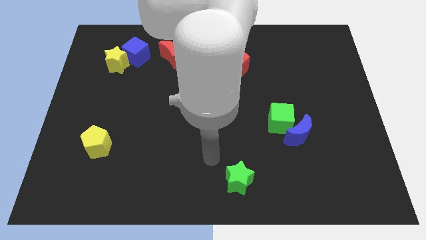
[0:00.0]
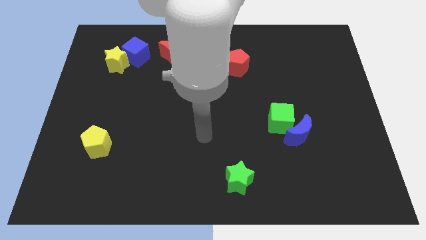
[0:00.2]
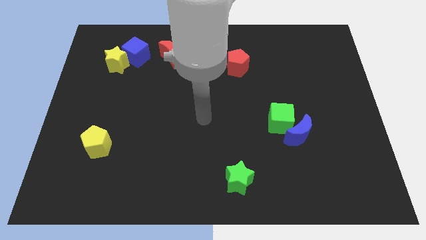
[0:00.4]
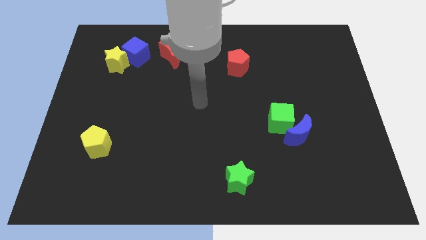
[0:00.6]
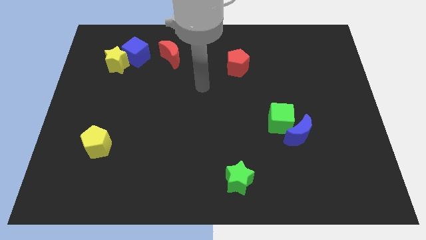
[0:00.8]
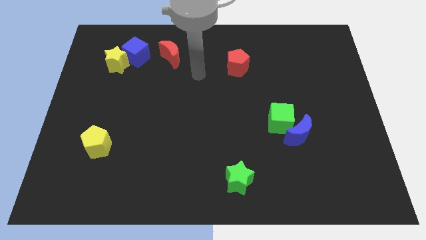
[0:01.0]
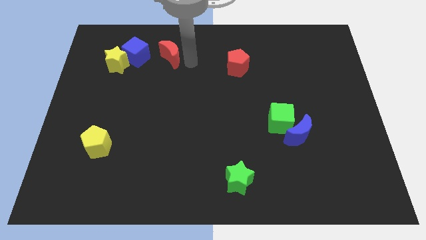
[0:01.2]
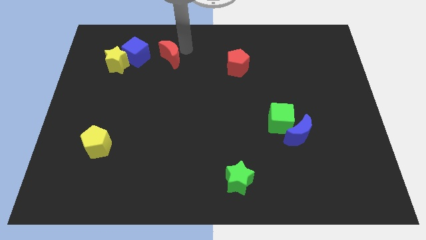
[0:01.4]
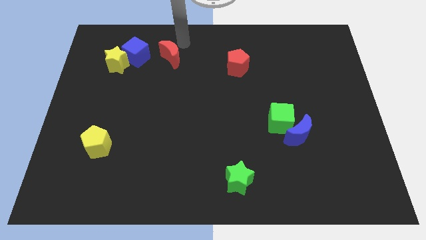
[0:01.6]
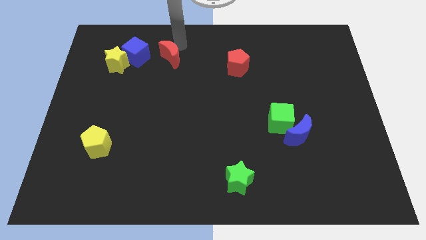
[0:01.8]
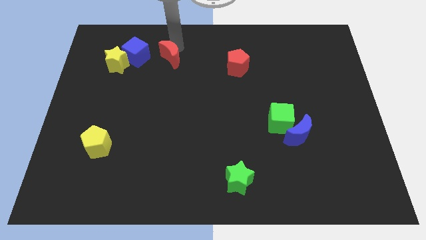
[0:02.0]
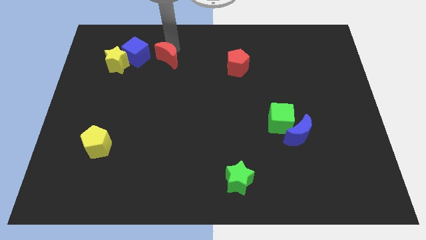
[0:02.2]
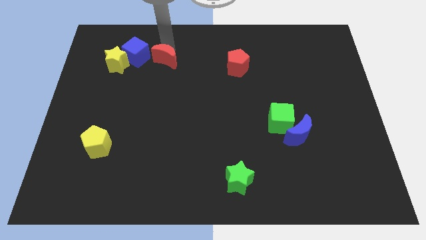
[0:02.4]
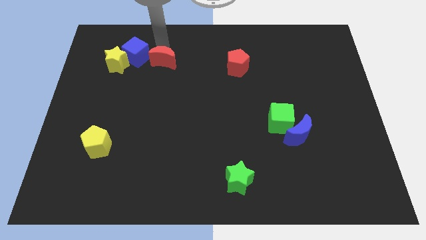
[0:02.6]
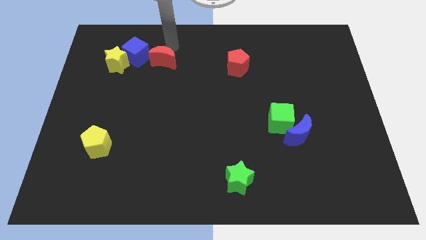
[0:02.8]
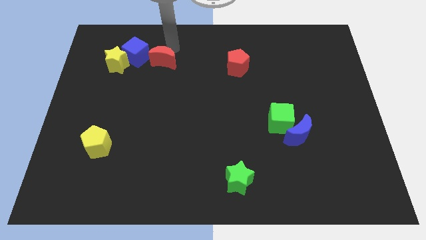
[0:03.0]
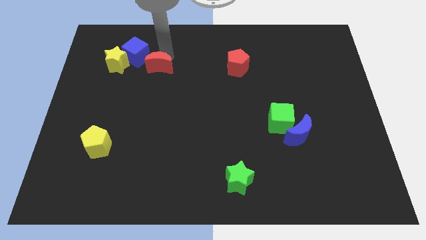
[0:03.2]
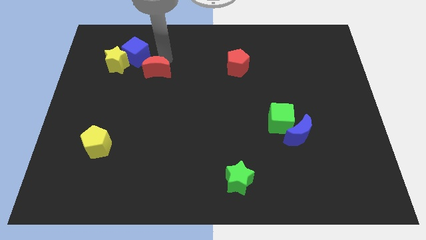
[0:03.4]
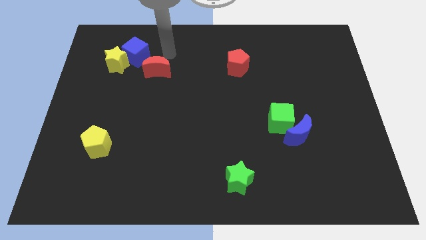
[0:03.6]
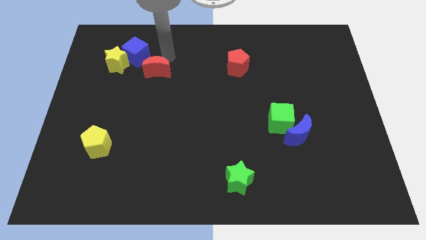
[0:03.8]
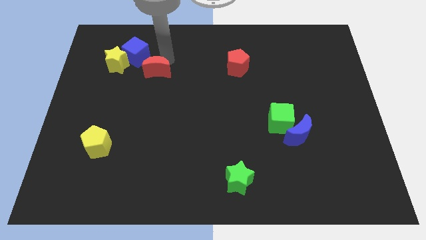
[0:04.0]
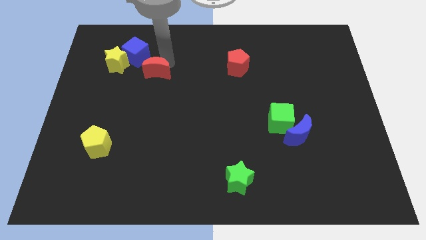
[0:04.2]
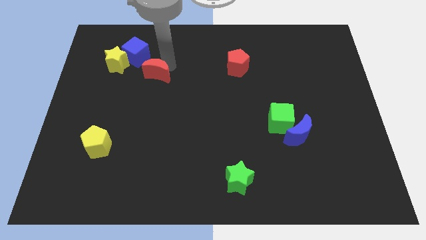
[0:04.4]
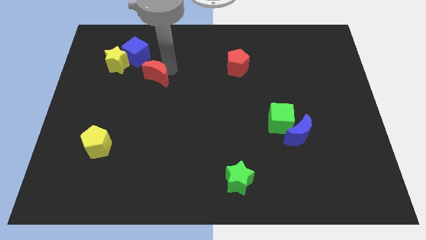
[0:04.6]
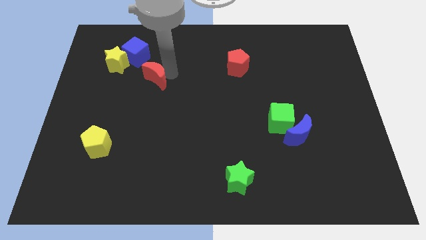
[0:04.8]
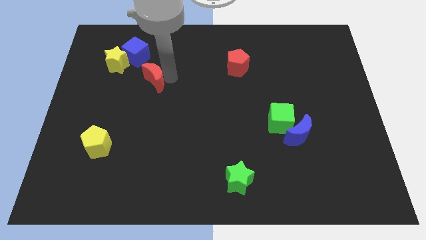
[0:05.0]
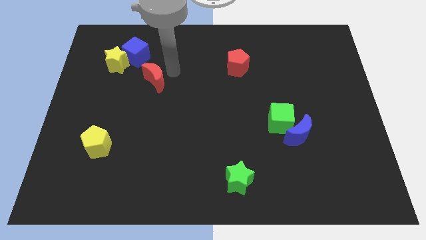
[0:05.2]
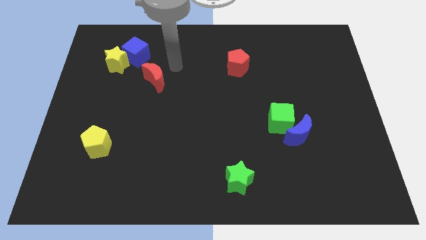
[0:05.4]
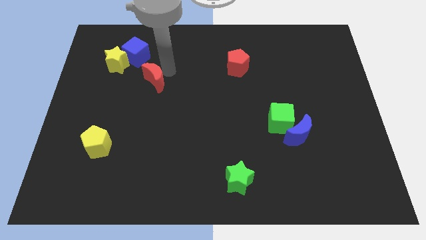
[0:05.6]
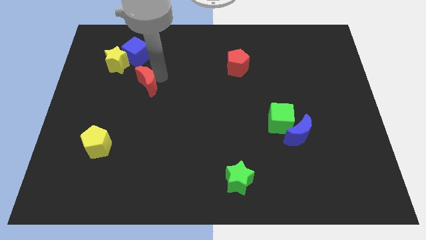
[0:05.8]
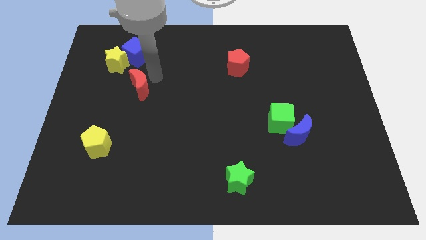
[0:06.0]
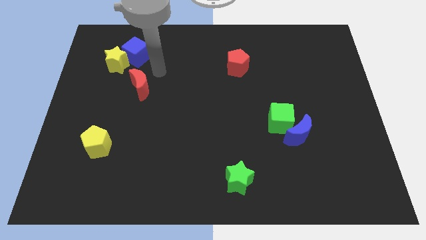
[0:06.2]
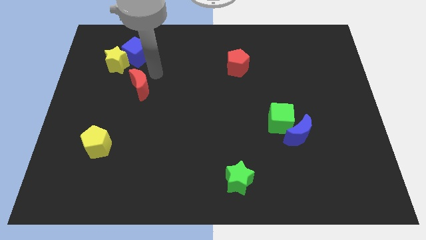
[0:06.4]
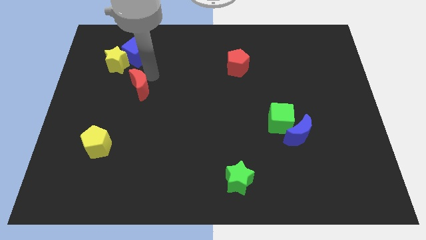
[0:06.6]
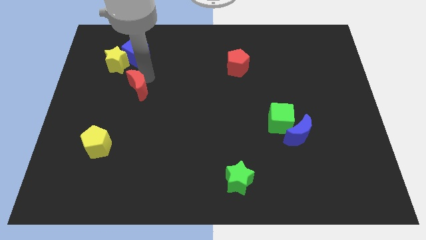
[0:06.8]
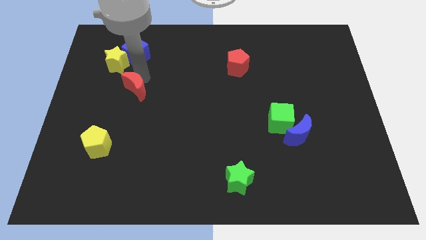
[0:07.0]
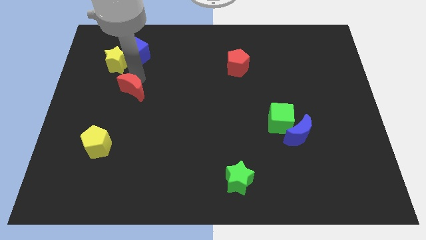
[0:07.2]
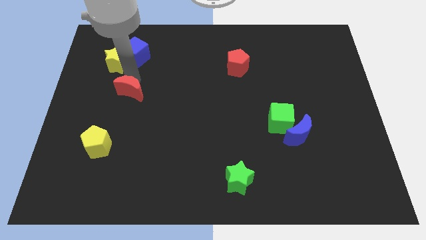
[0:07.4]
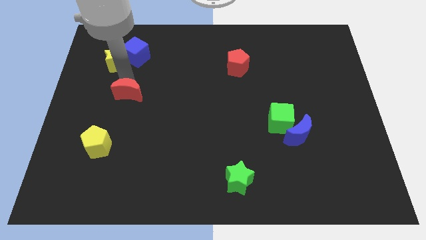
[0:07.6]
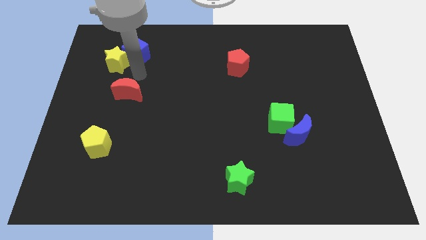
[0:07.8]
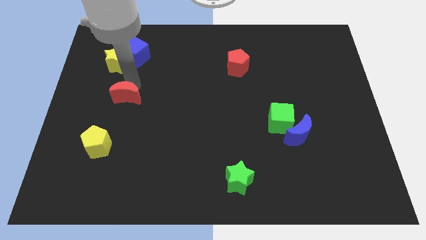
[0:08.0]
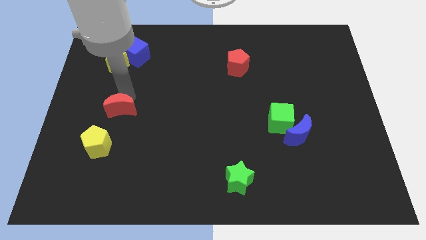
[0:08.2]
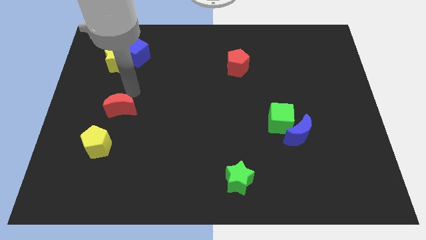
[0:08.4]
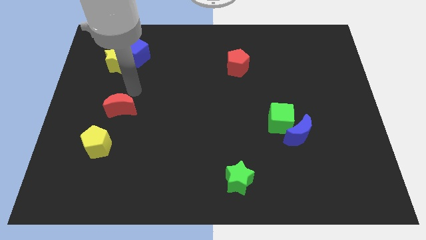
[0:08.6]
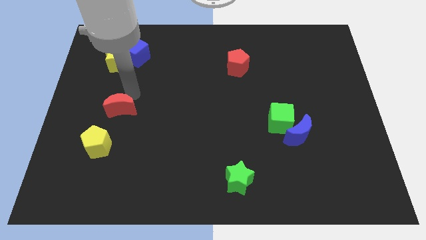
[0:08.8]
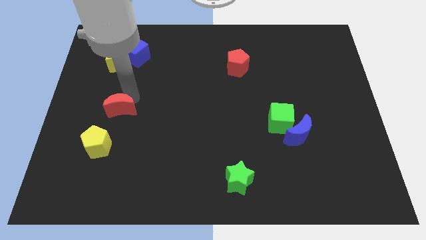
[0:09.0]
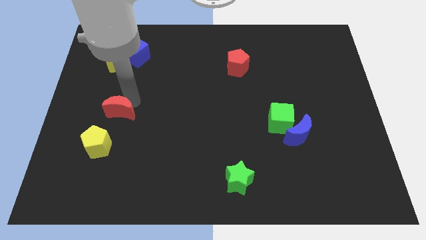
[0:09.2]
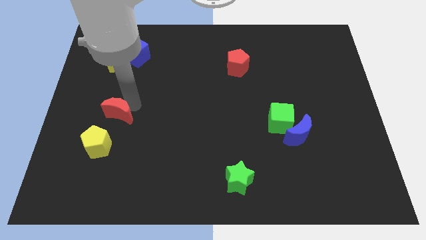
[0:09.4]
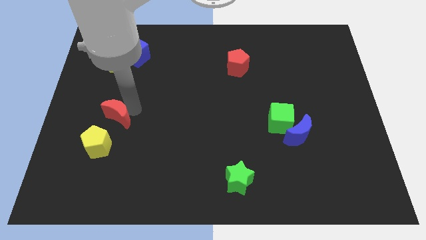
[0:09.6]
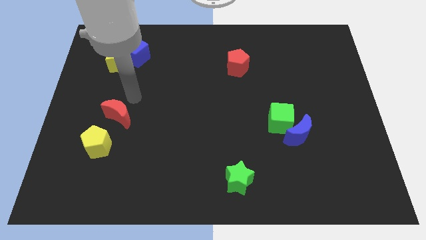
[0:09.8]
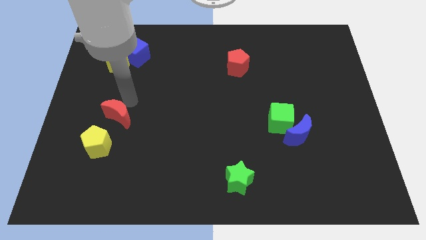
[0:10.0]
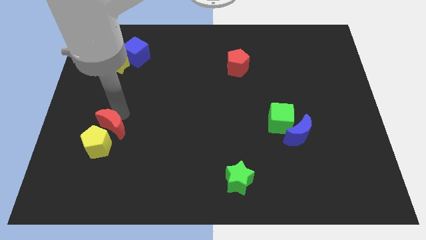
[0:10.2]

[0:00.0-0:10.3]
slide the red moon to the yellow pentagon

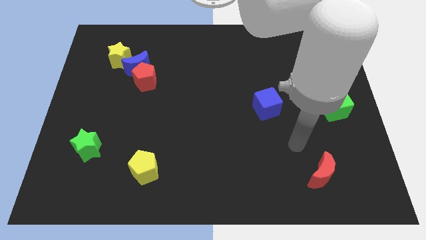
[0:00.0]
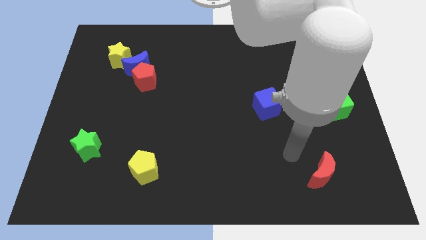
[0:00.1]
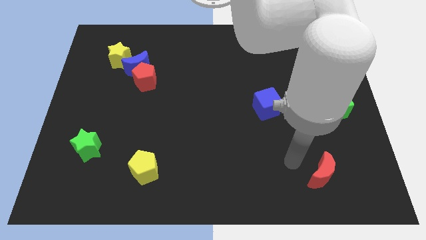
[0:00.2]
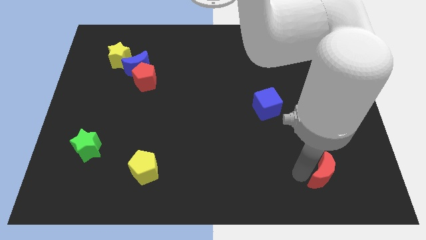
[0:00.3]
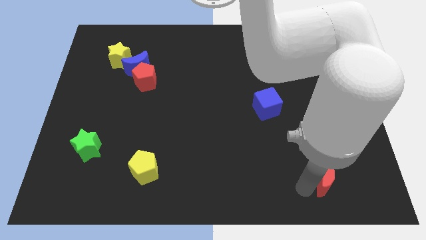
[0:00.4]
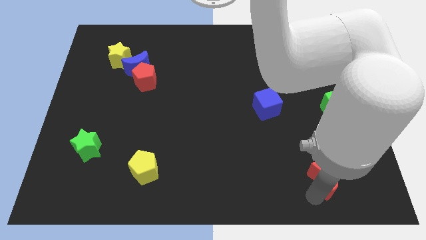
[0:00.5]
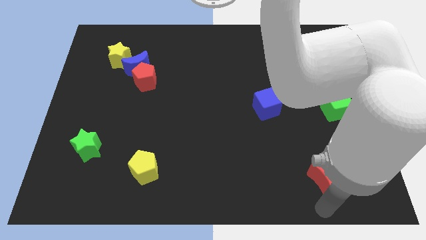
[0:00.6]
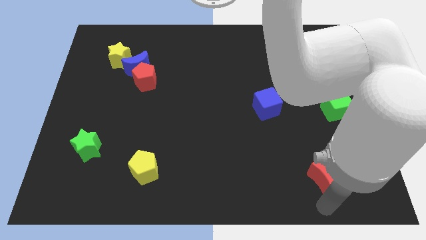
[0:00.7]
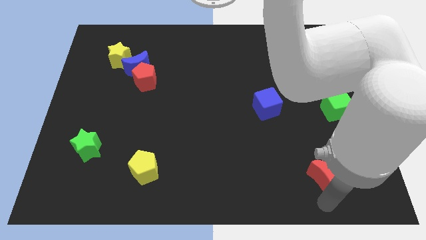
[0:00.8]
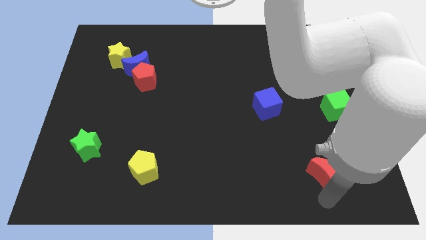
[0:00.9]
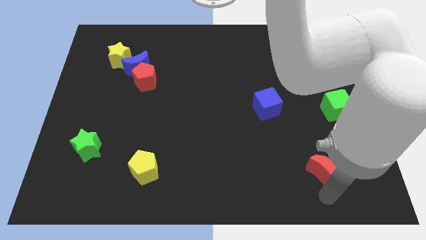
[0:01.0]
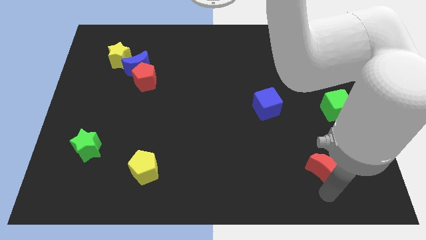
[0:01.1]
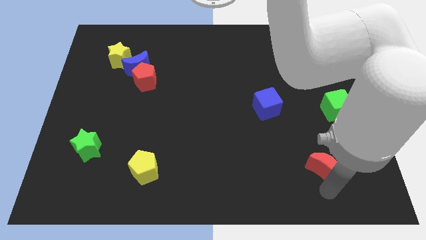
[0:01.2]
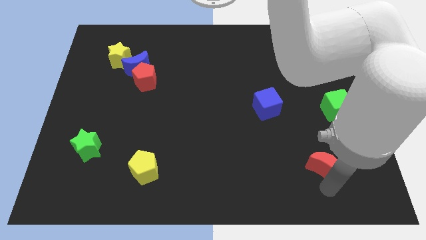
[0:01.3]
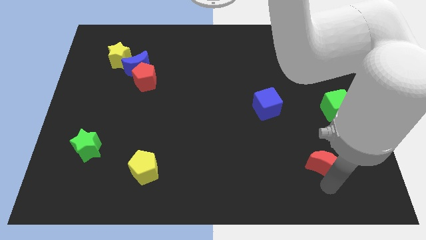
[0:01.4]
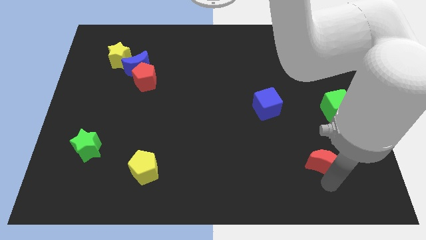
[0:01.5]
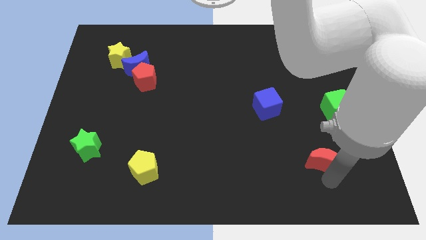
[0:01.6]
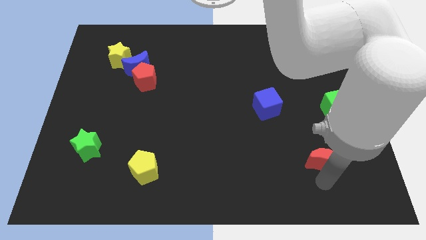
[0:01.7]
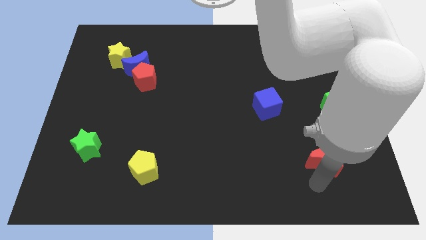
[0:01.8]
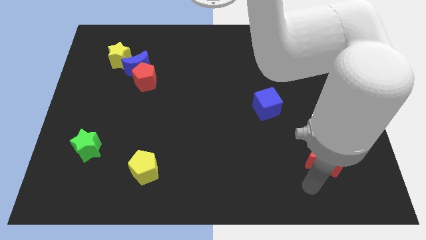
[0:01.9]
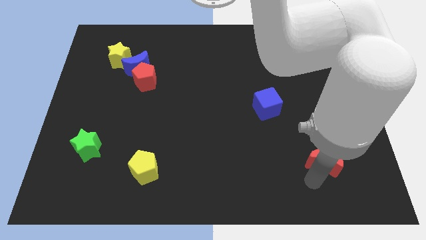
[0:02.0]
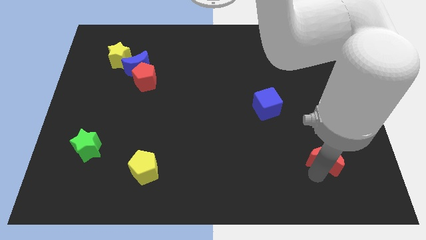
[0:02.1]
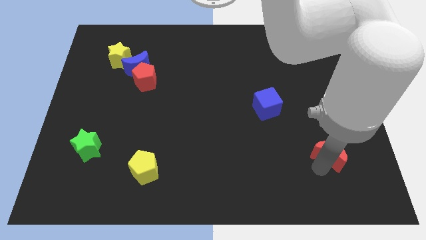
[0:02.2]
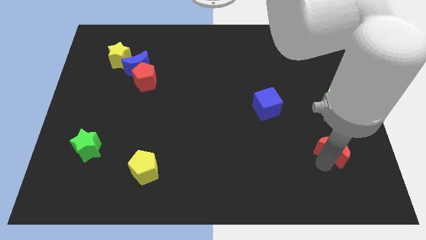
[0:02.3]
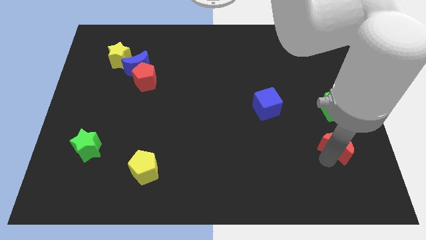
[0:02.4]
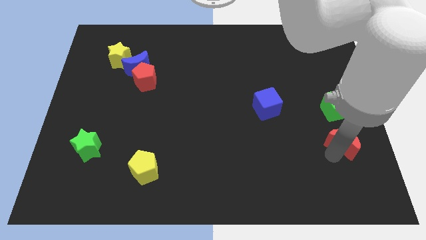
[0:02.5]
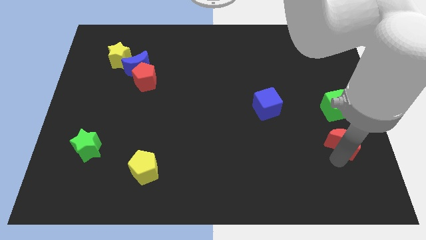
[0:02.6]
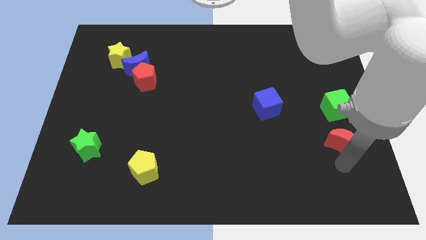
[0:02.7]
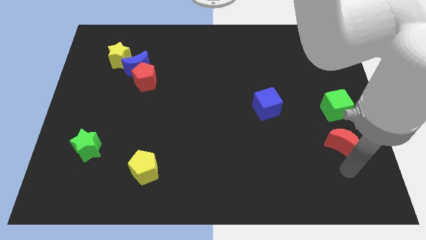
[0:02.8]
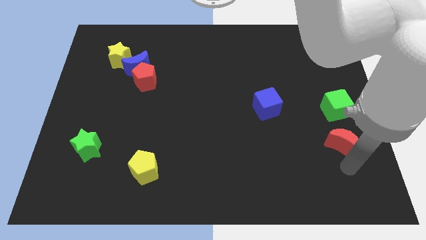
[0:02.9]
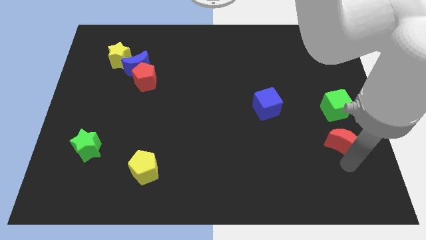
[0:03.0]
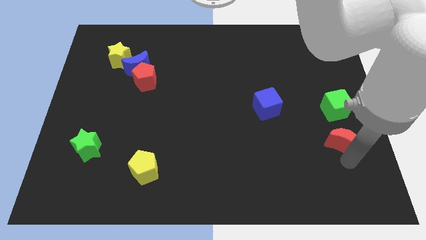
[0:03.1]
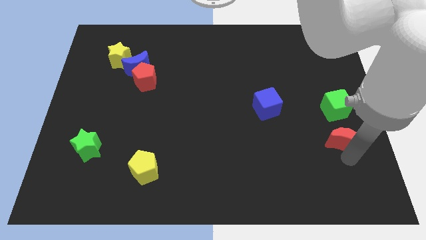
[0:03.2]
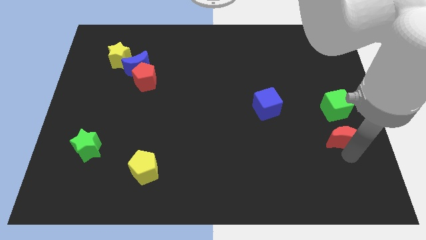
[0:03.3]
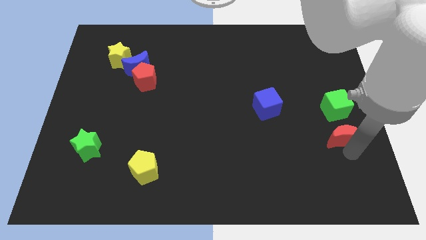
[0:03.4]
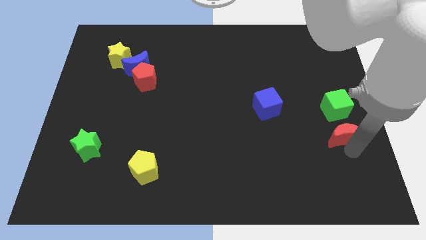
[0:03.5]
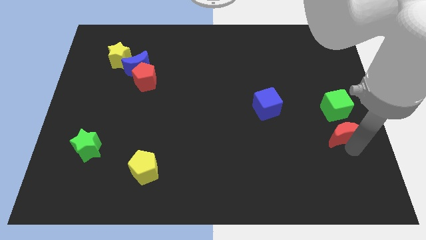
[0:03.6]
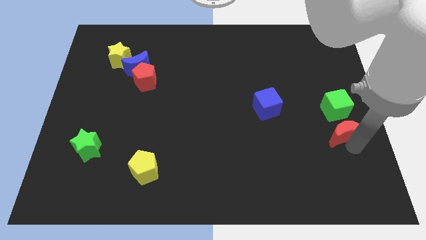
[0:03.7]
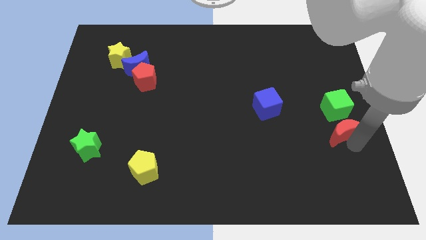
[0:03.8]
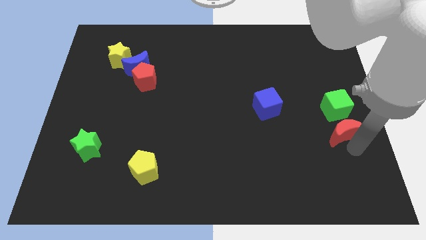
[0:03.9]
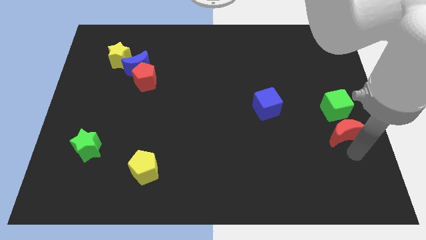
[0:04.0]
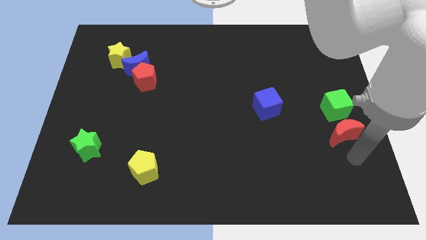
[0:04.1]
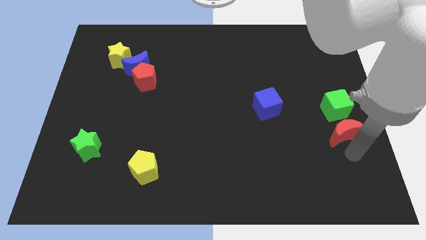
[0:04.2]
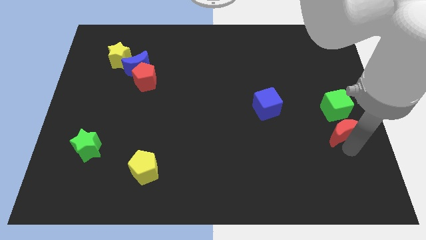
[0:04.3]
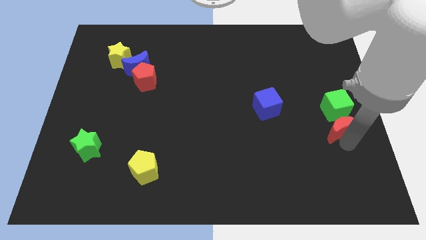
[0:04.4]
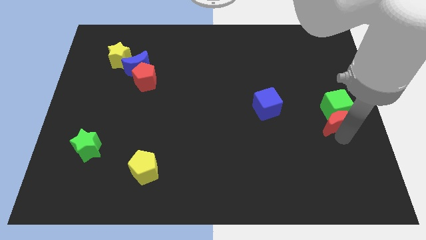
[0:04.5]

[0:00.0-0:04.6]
push the red moon towards the green cube
